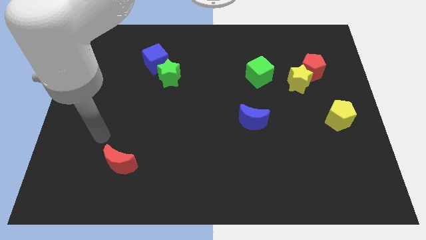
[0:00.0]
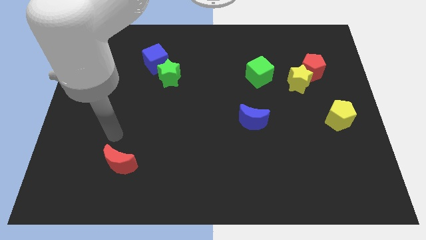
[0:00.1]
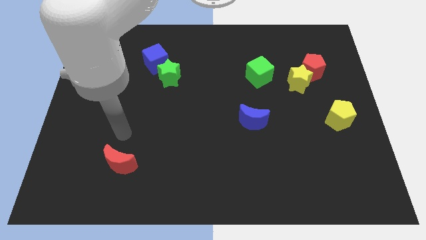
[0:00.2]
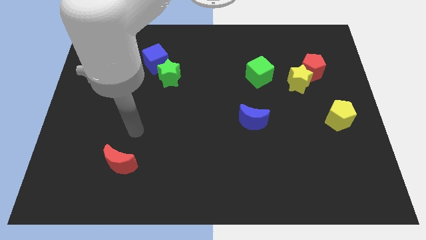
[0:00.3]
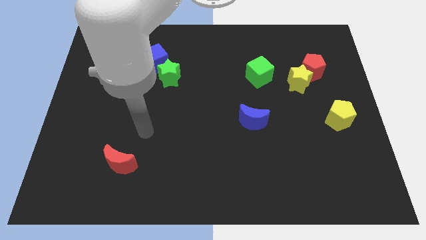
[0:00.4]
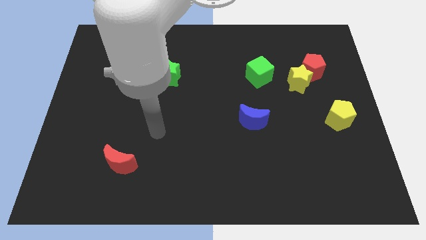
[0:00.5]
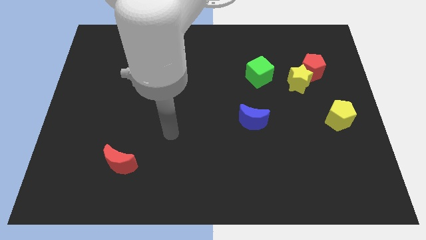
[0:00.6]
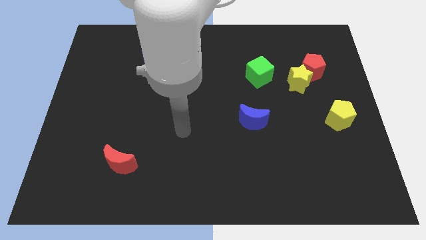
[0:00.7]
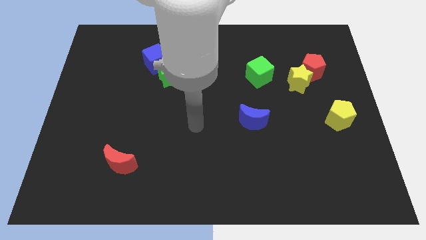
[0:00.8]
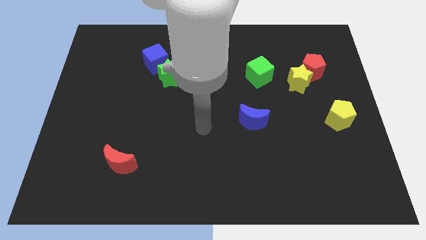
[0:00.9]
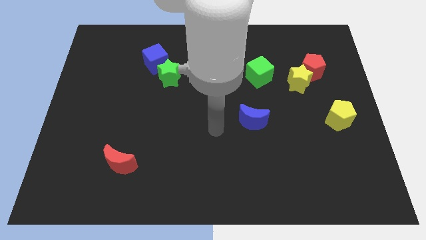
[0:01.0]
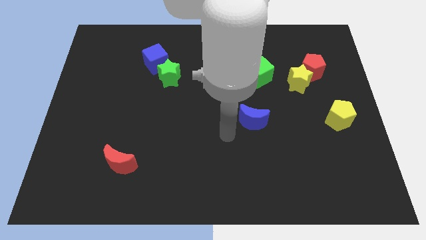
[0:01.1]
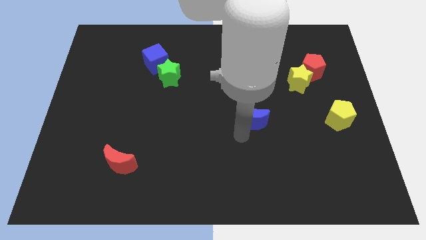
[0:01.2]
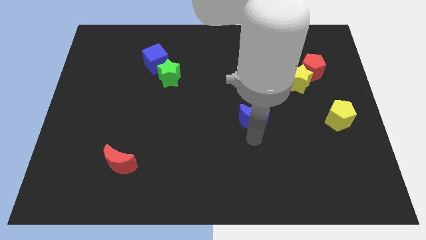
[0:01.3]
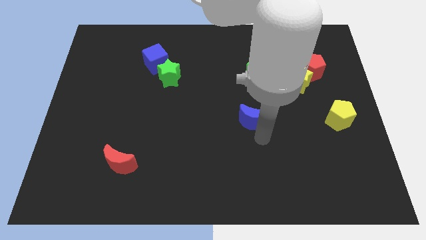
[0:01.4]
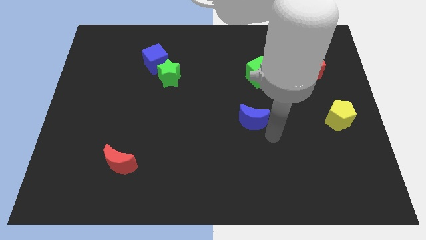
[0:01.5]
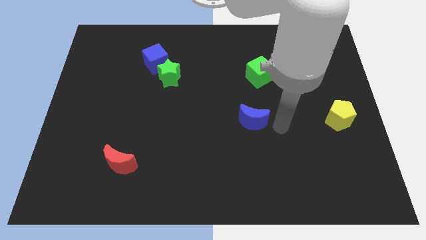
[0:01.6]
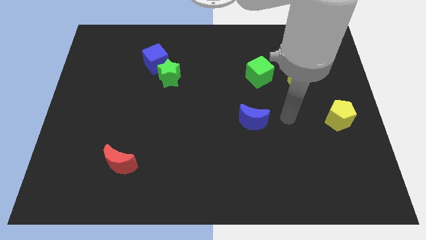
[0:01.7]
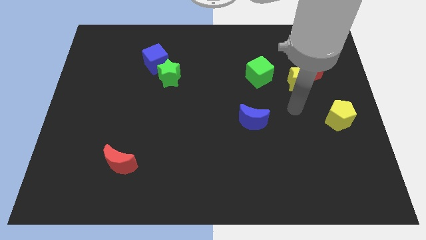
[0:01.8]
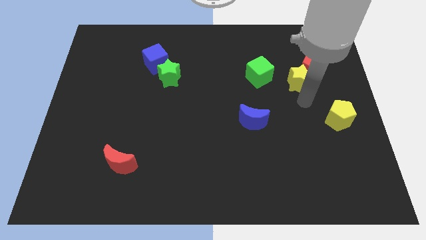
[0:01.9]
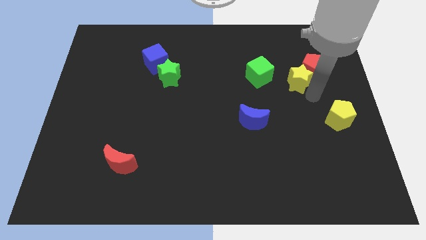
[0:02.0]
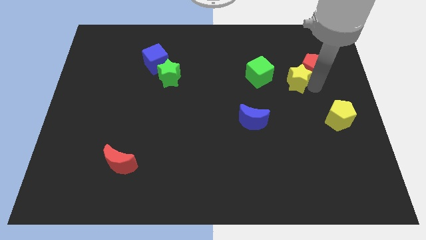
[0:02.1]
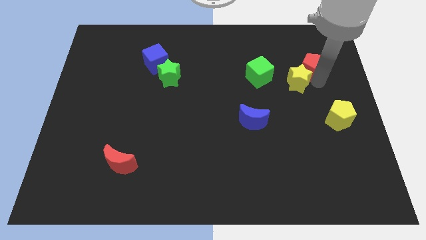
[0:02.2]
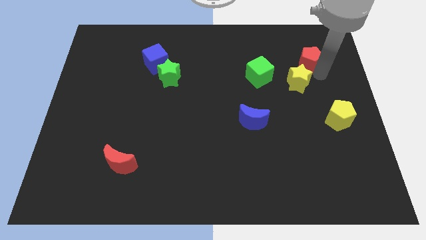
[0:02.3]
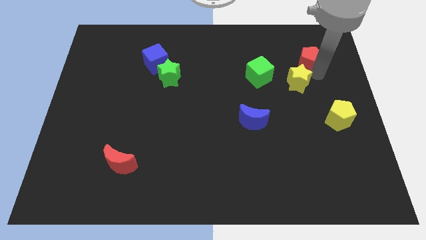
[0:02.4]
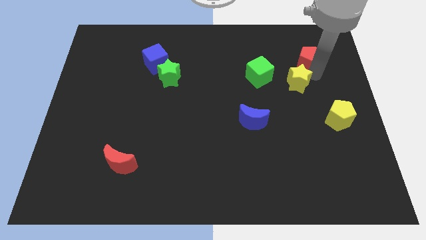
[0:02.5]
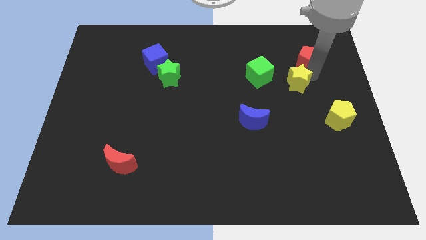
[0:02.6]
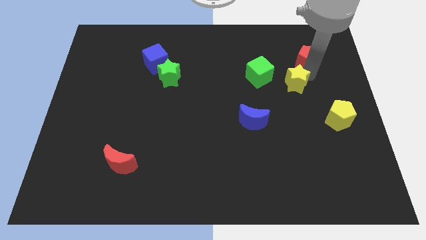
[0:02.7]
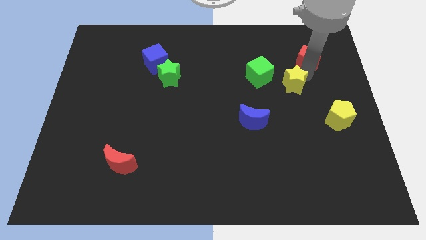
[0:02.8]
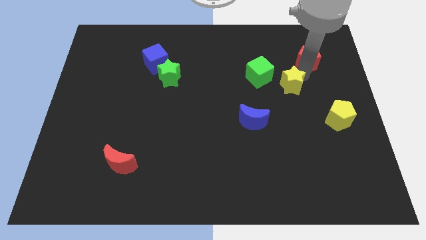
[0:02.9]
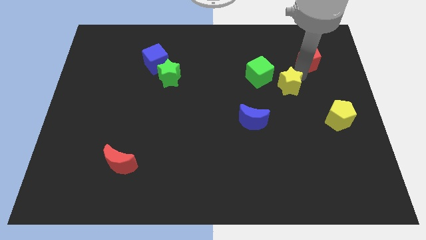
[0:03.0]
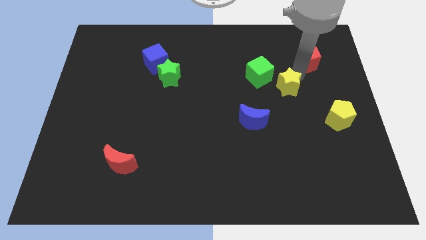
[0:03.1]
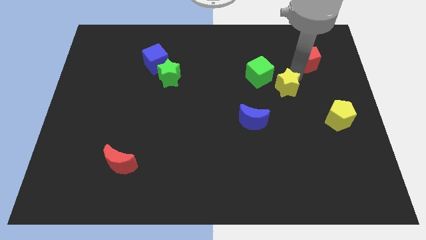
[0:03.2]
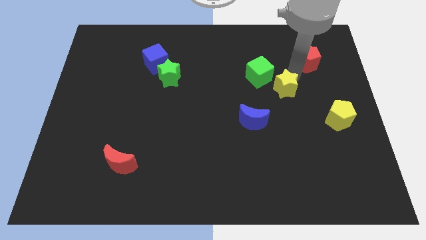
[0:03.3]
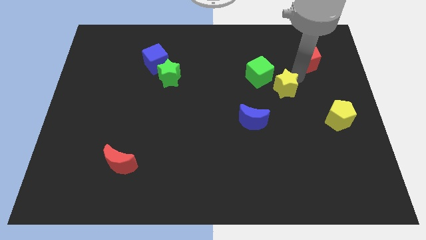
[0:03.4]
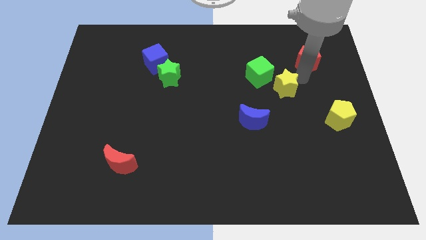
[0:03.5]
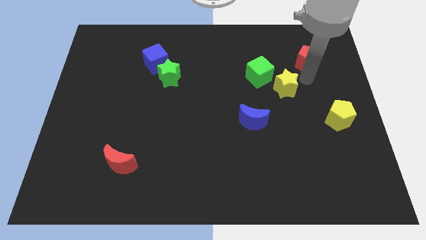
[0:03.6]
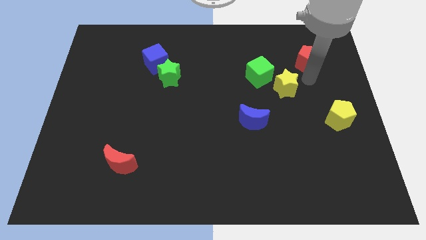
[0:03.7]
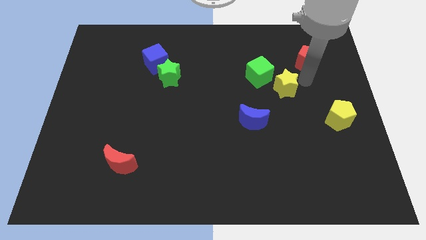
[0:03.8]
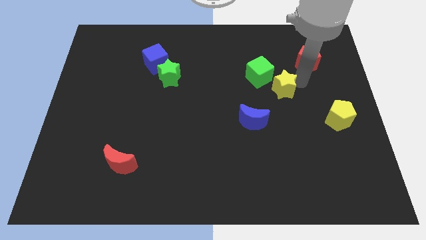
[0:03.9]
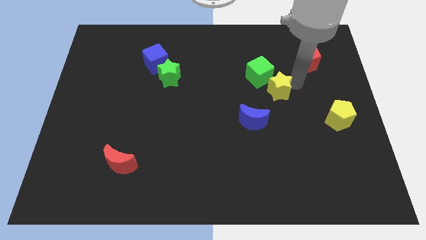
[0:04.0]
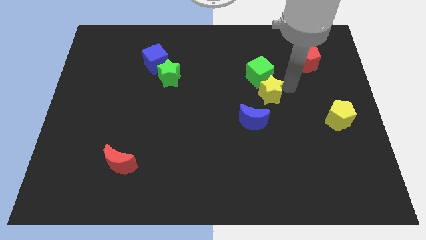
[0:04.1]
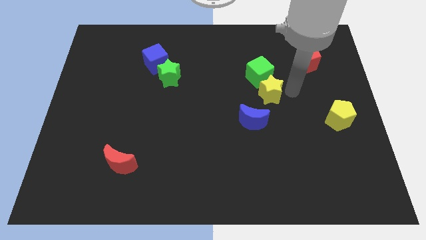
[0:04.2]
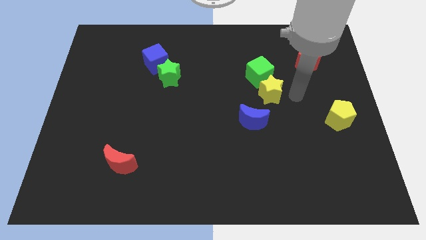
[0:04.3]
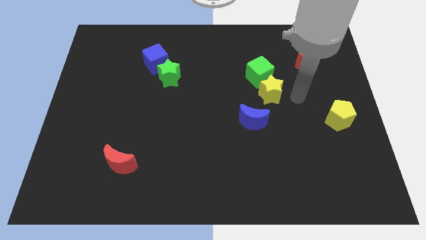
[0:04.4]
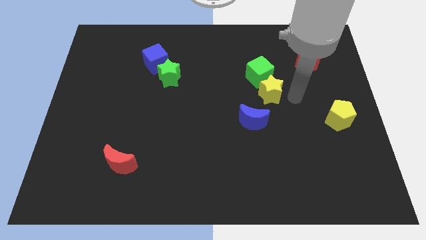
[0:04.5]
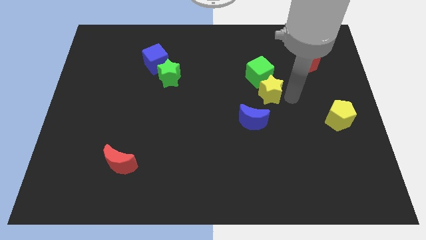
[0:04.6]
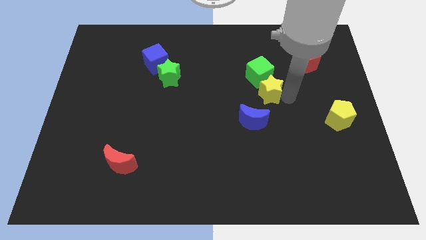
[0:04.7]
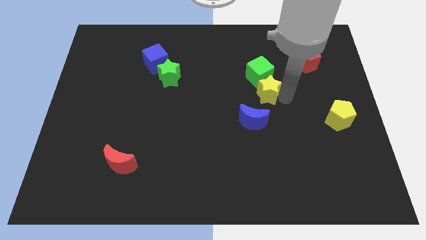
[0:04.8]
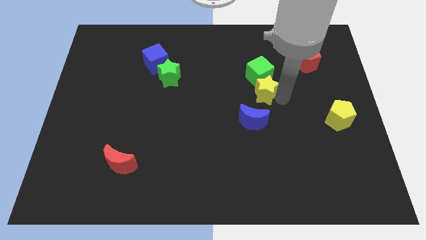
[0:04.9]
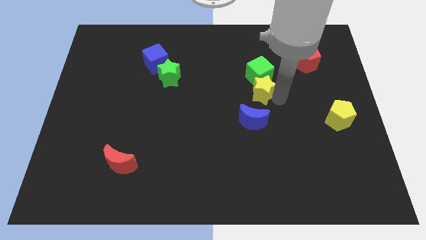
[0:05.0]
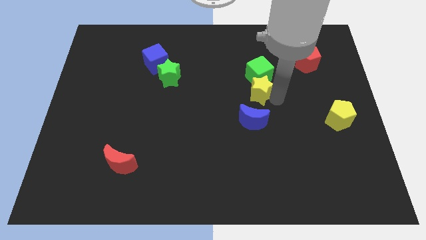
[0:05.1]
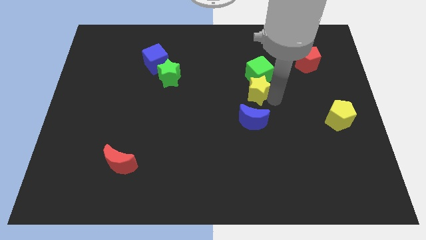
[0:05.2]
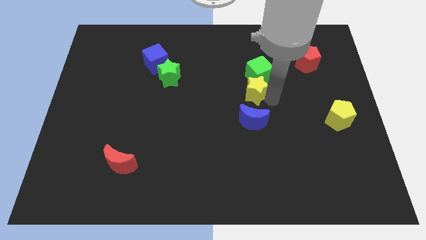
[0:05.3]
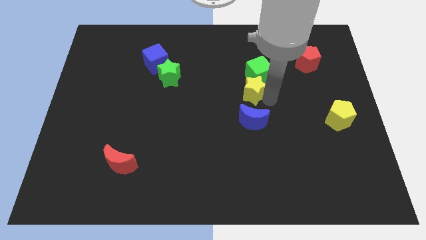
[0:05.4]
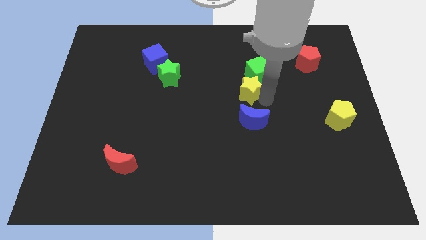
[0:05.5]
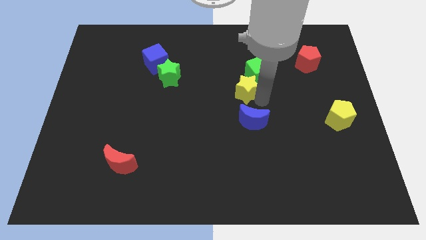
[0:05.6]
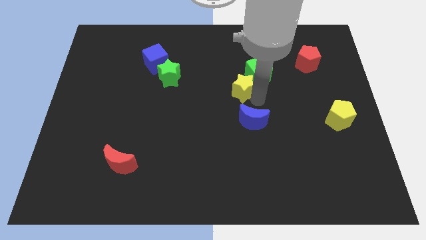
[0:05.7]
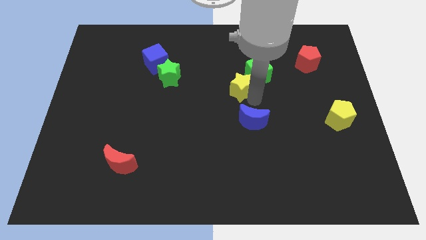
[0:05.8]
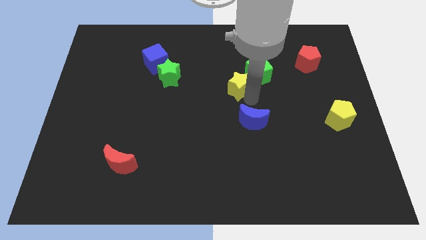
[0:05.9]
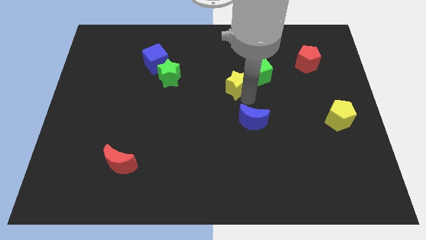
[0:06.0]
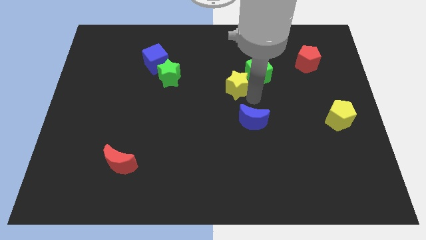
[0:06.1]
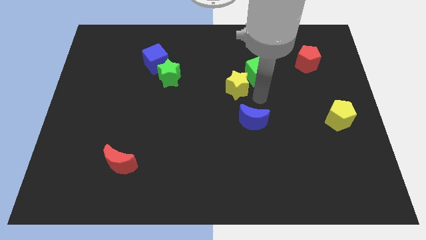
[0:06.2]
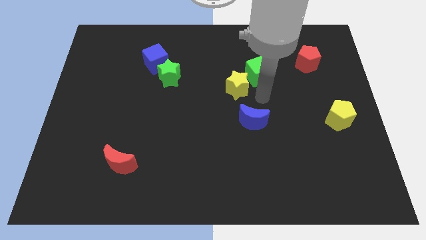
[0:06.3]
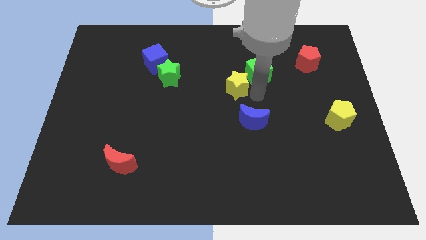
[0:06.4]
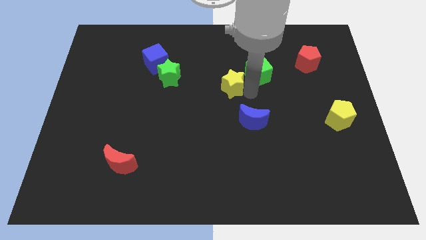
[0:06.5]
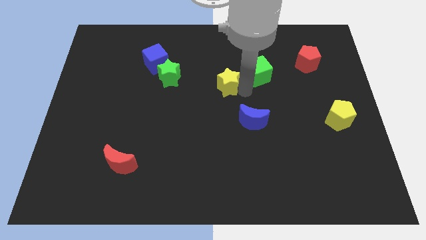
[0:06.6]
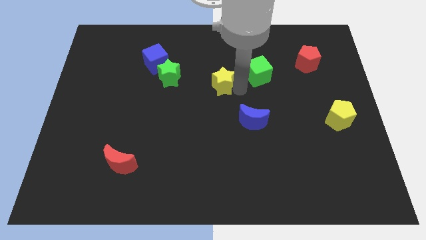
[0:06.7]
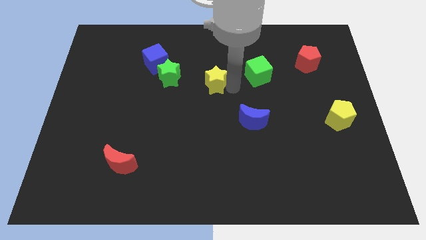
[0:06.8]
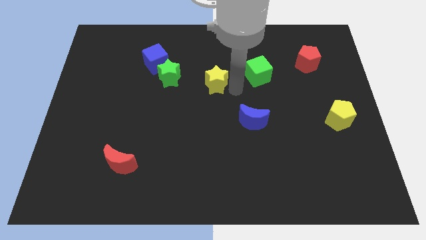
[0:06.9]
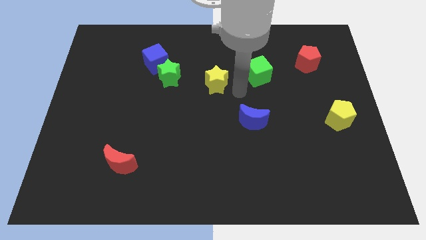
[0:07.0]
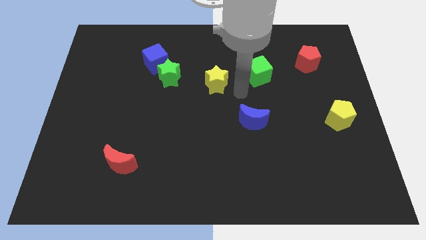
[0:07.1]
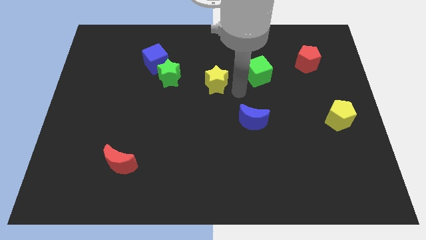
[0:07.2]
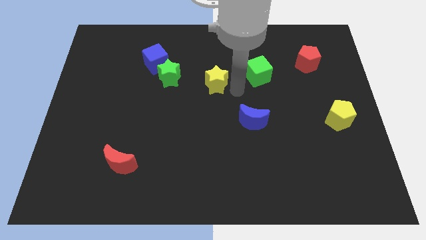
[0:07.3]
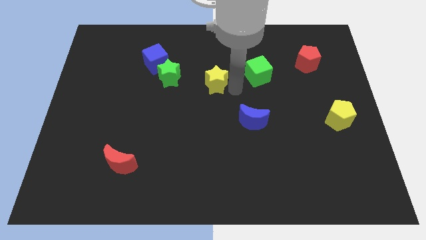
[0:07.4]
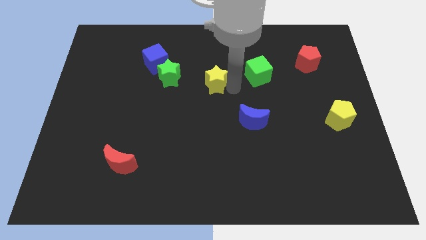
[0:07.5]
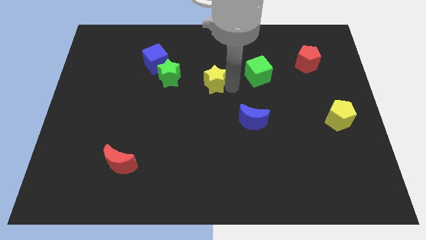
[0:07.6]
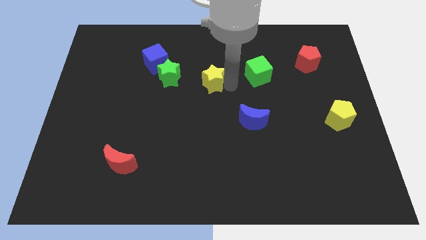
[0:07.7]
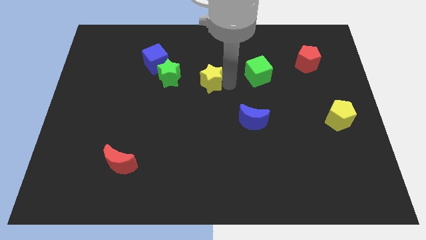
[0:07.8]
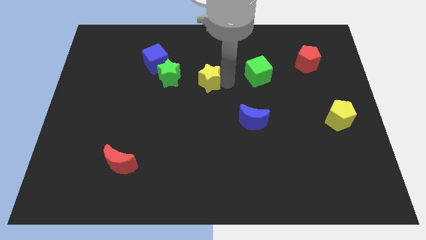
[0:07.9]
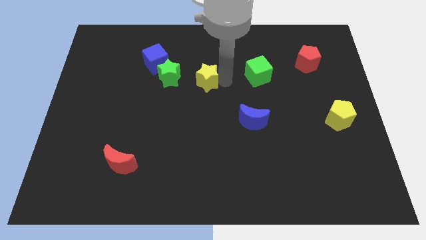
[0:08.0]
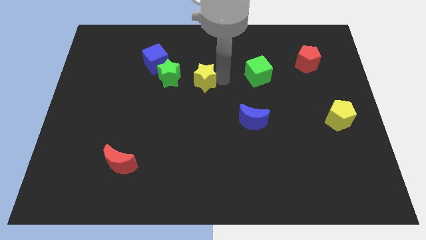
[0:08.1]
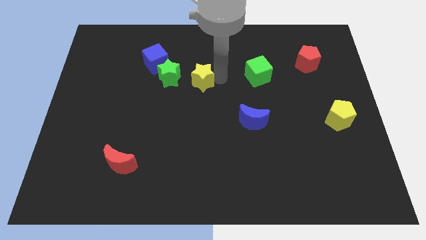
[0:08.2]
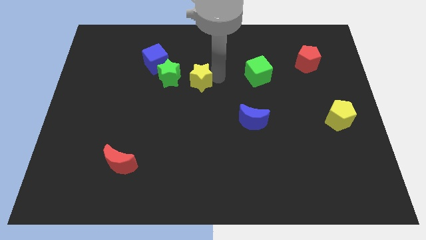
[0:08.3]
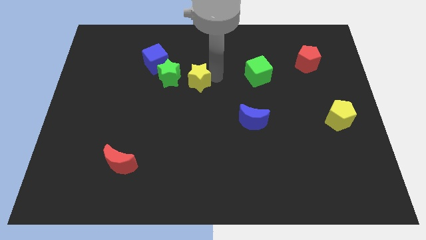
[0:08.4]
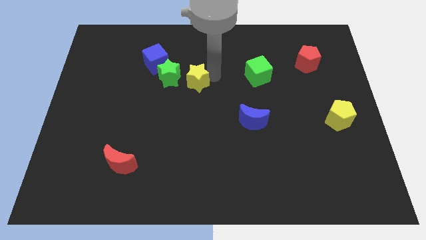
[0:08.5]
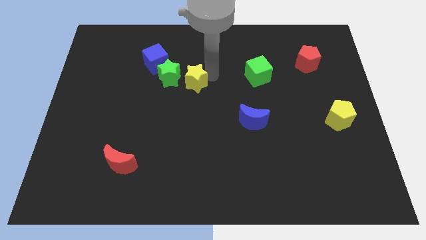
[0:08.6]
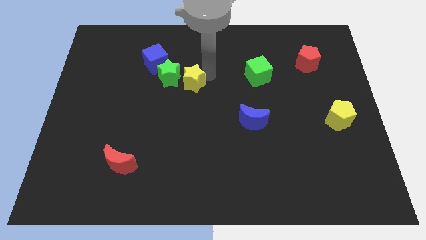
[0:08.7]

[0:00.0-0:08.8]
push the yellow star next to the green star
